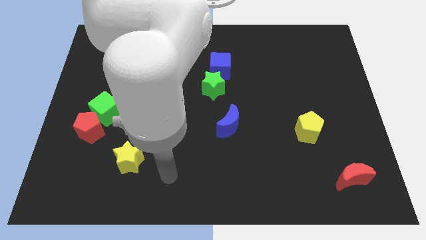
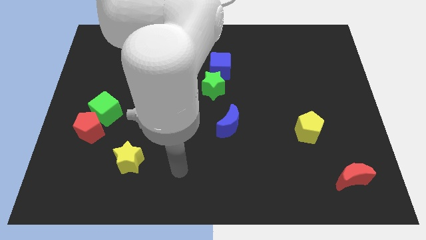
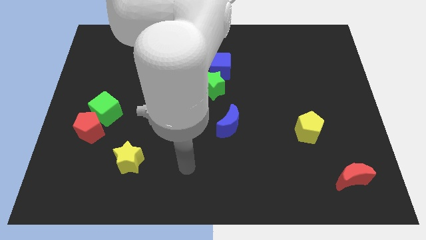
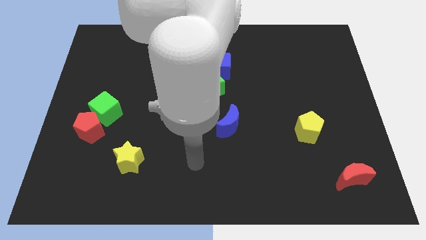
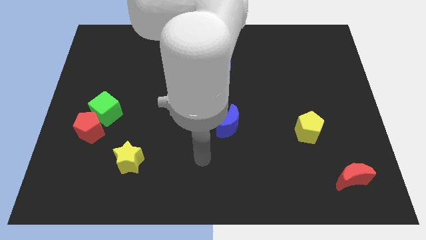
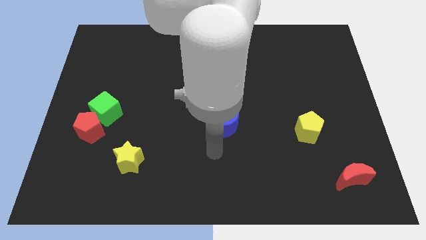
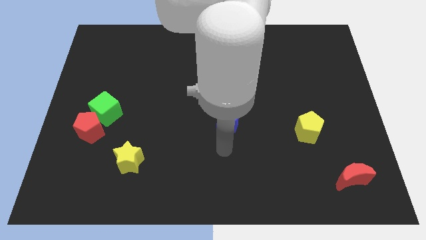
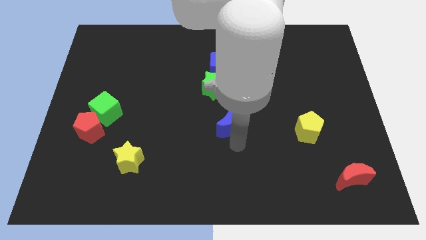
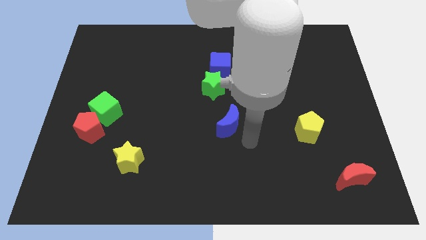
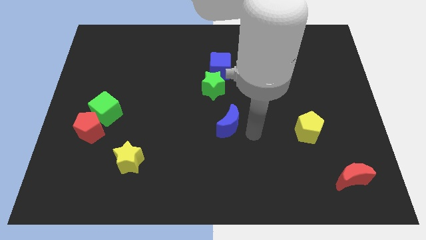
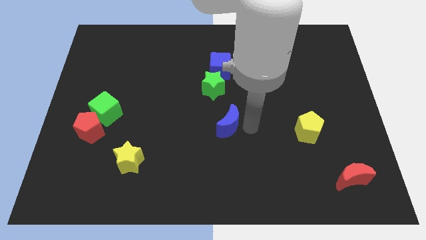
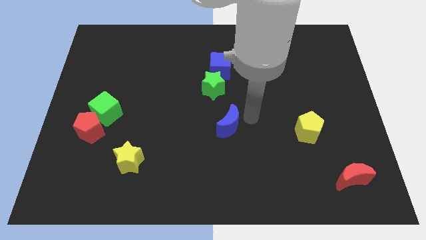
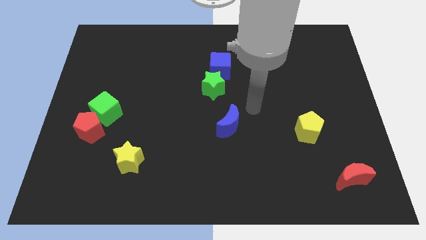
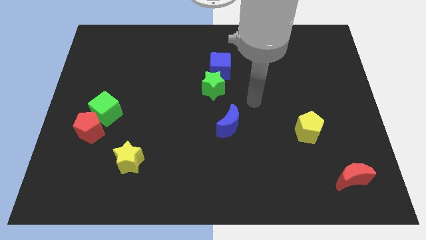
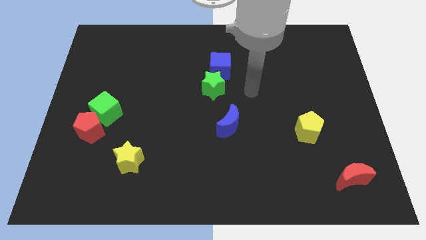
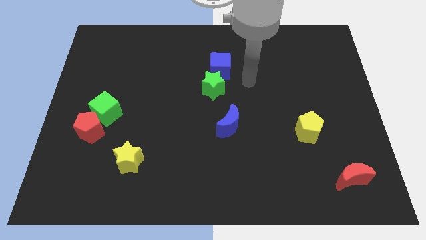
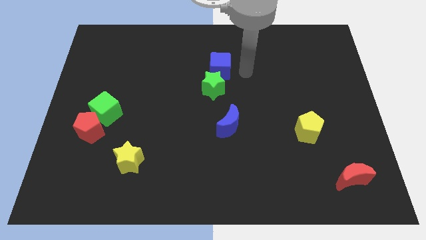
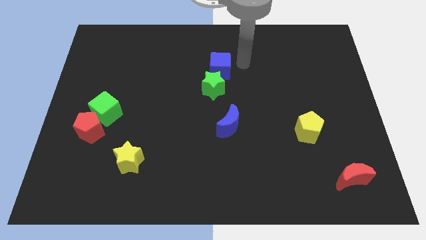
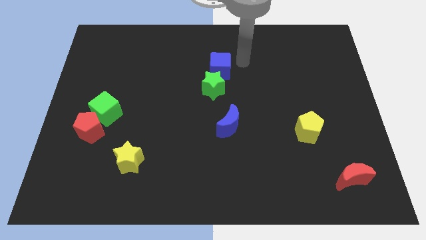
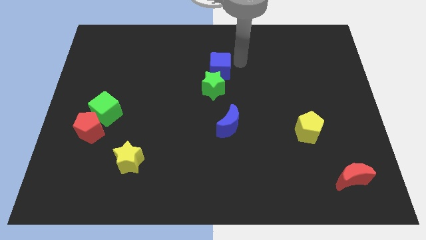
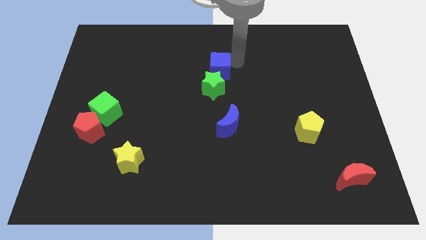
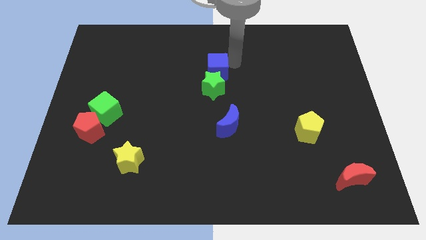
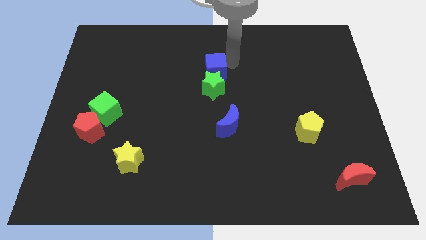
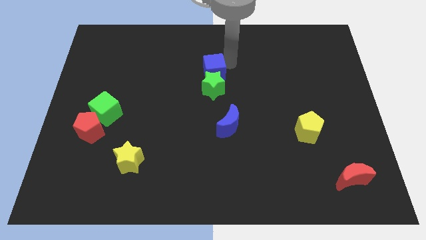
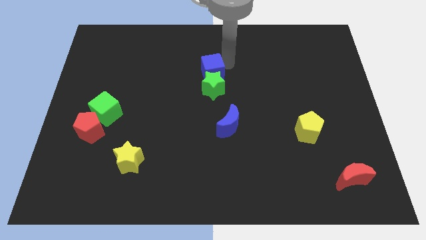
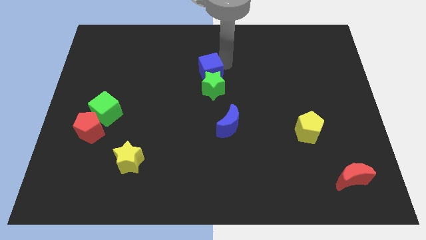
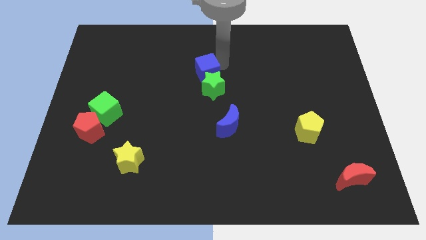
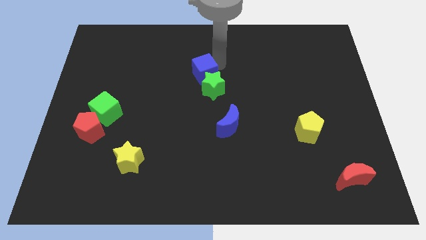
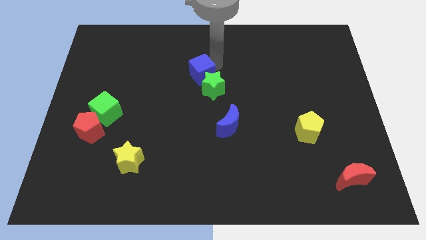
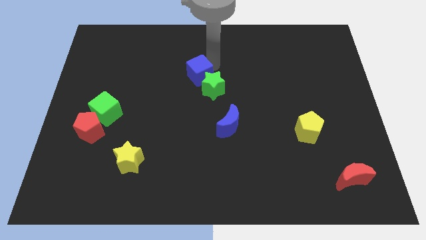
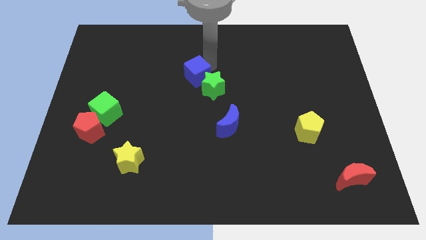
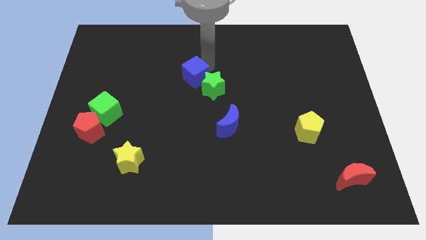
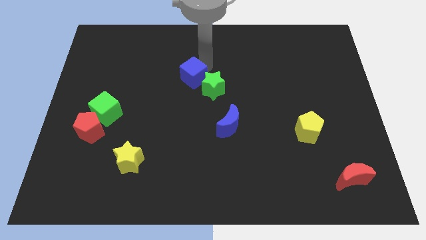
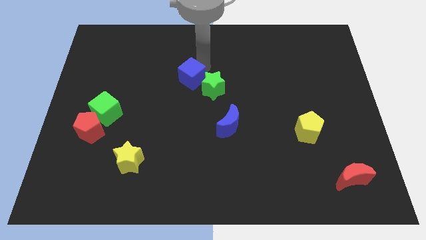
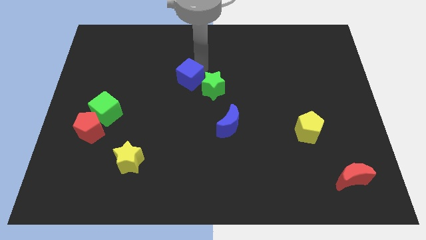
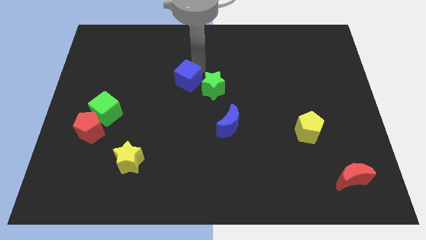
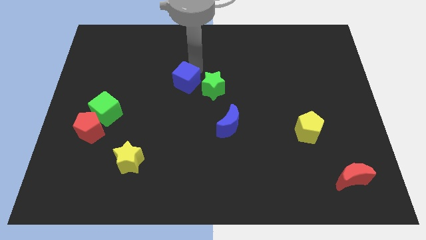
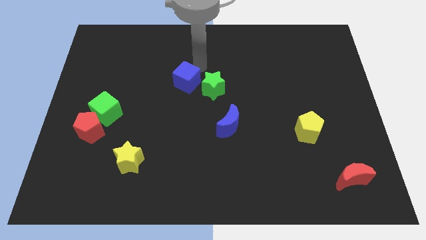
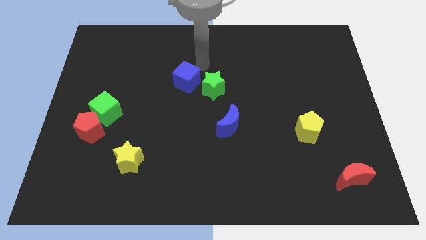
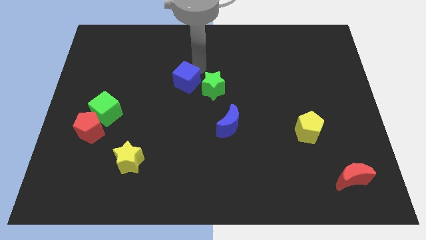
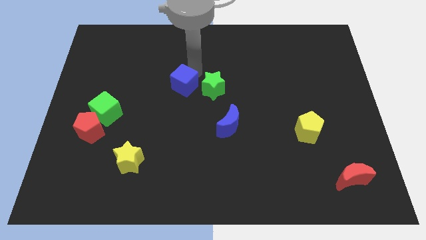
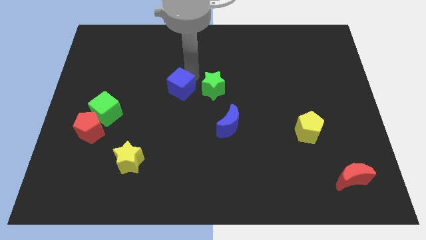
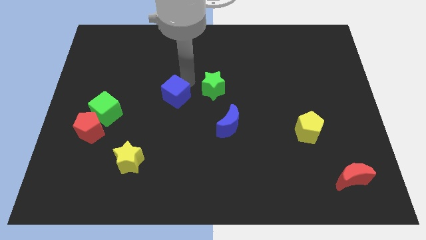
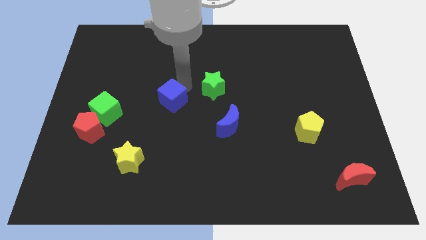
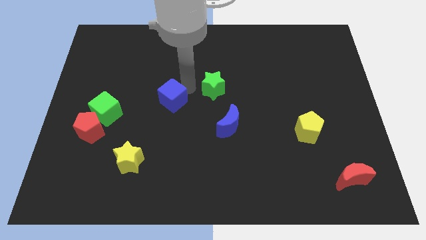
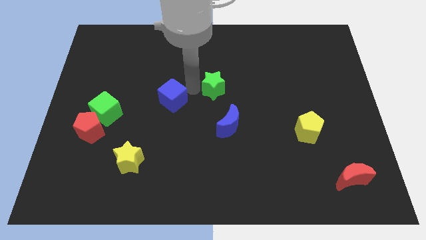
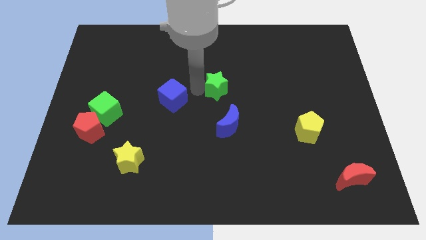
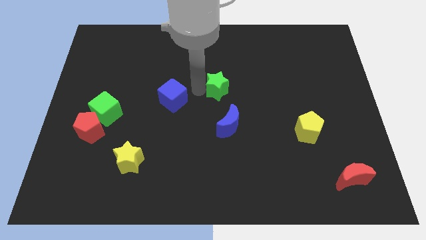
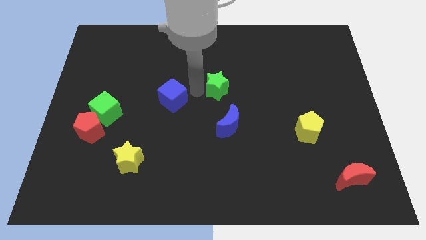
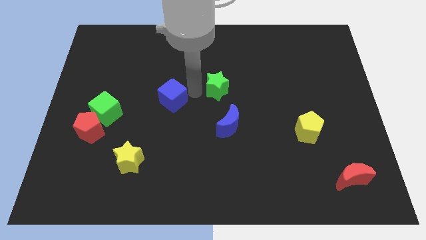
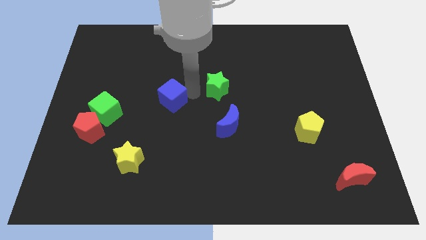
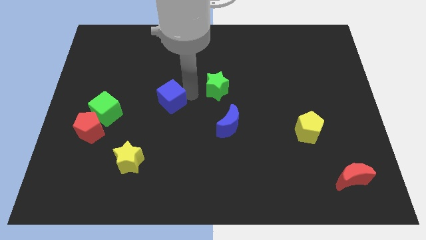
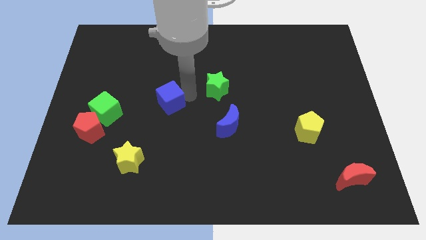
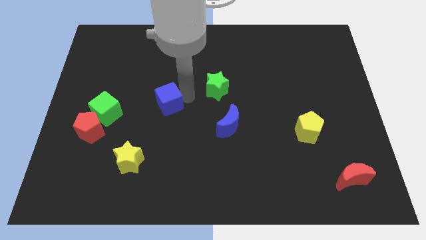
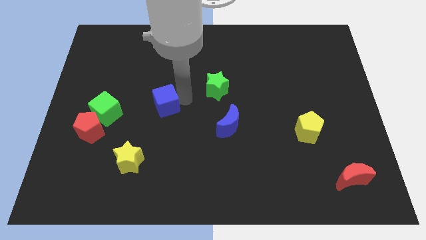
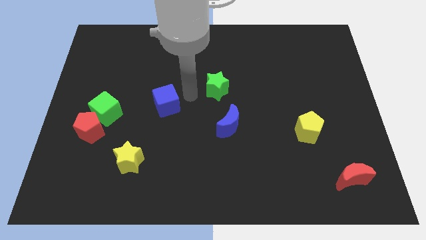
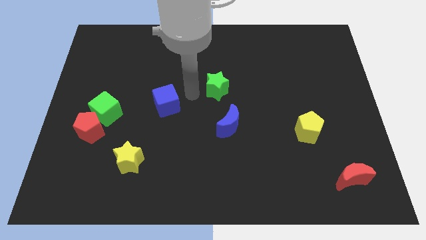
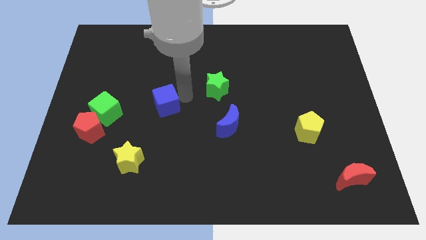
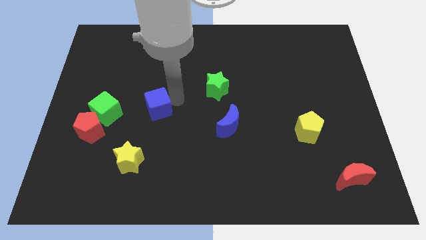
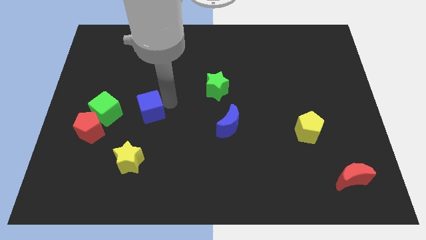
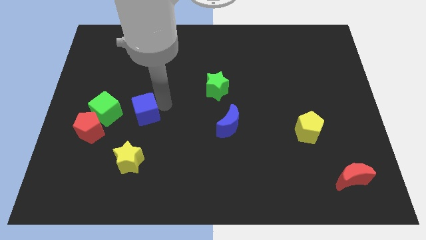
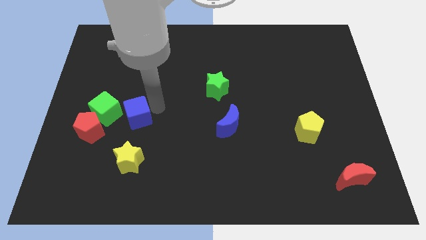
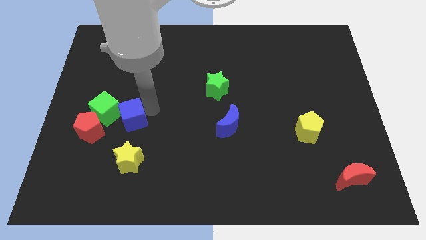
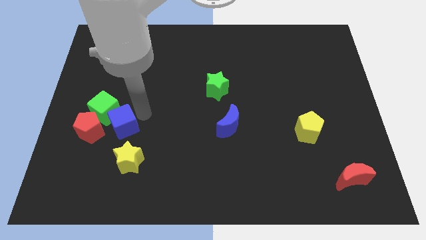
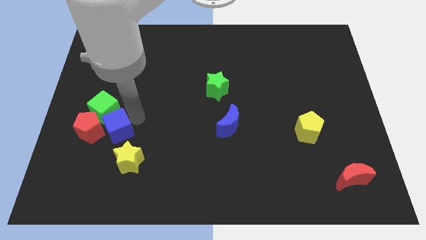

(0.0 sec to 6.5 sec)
slide the blue cube next to the red pentagon

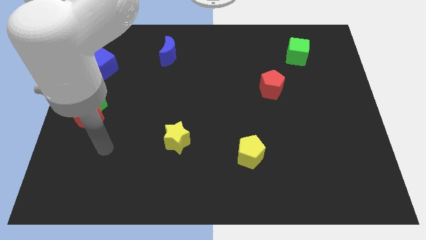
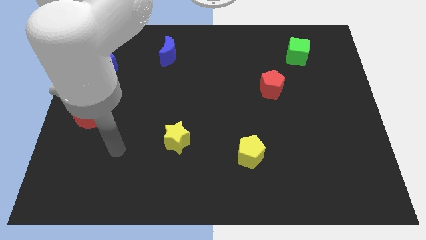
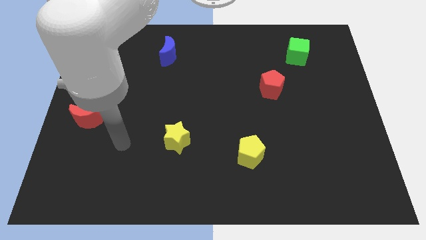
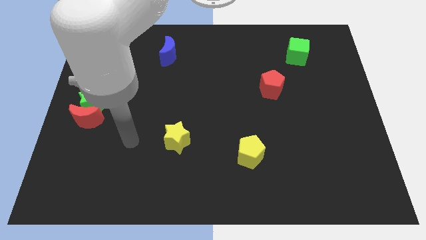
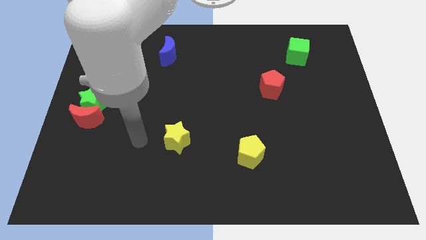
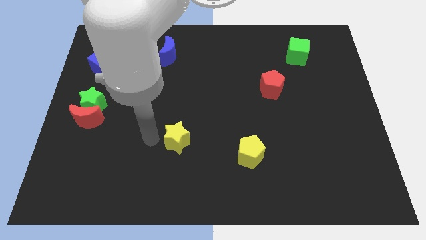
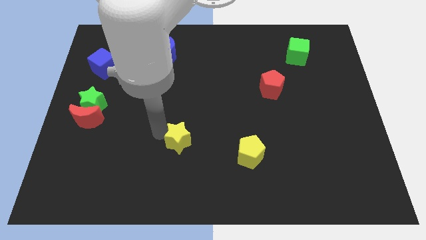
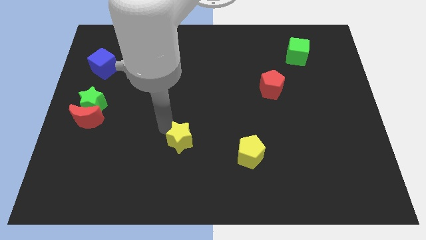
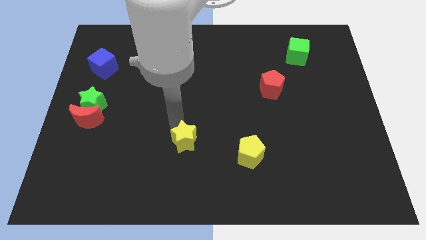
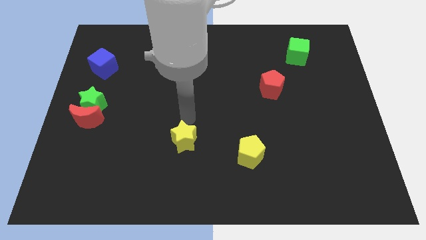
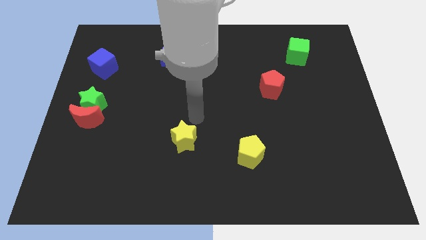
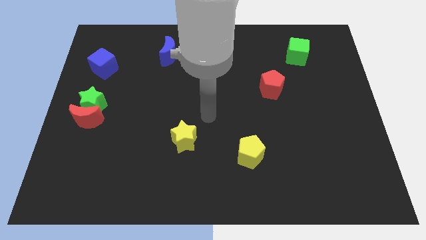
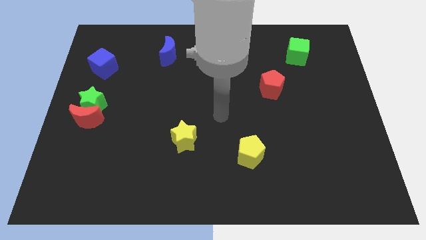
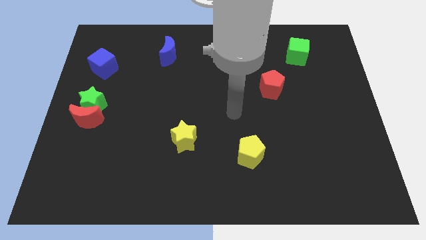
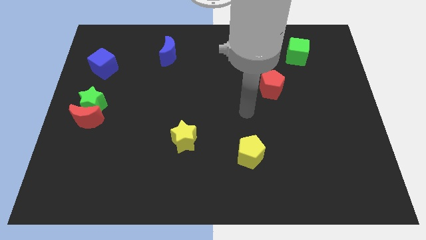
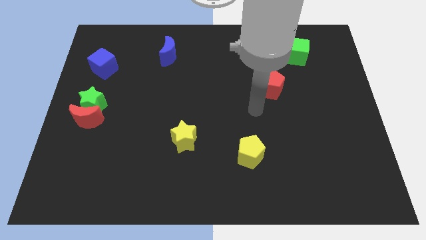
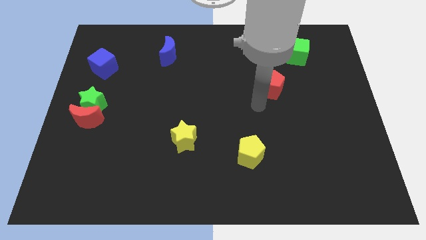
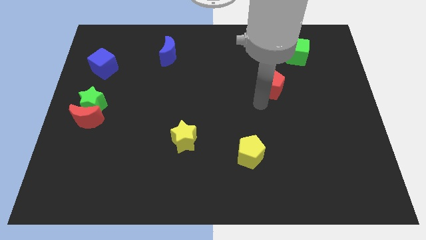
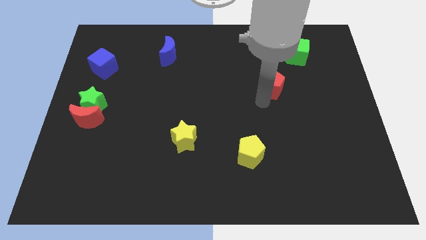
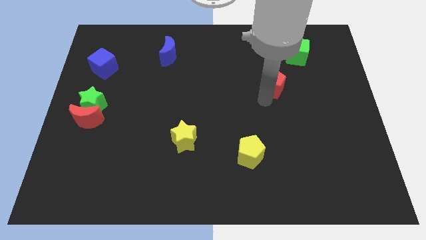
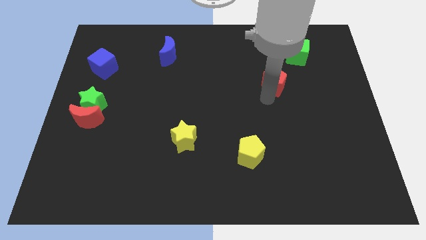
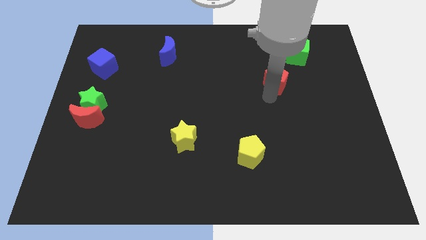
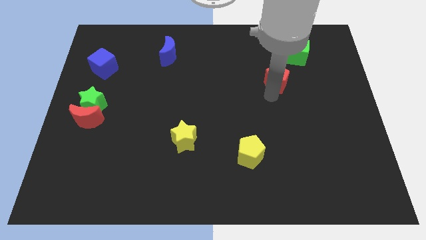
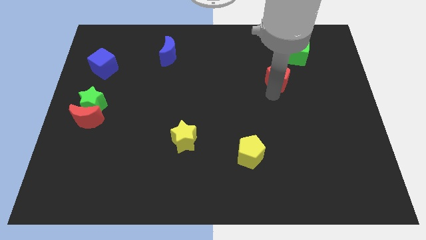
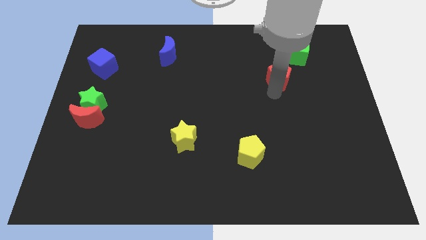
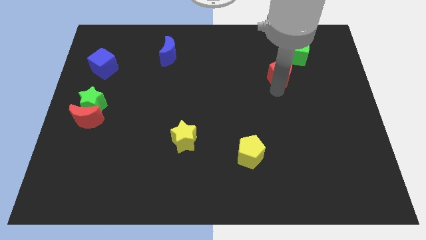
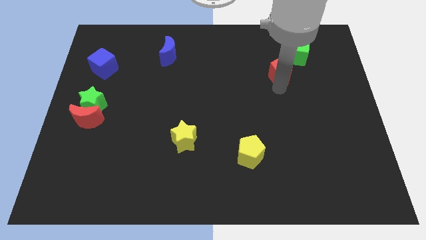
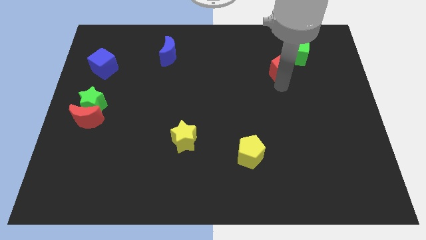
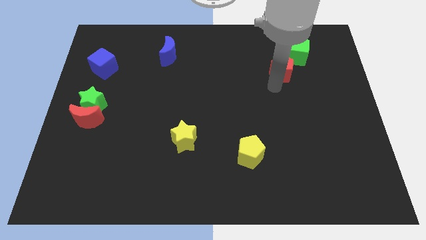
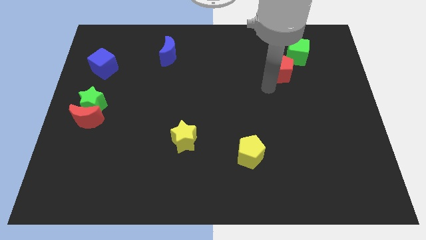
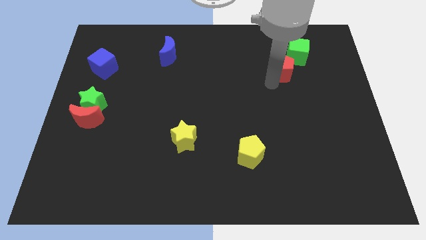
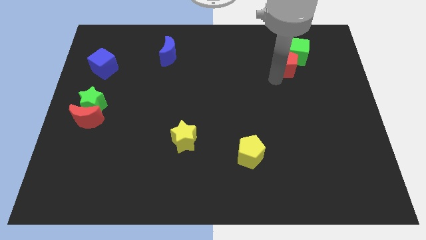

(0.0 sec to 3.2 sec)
slide the red pentagon close to the green cube
